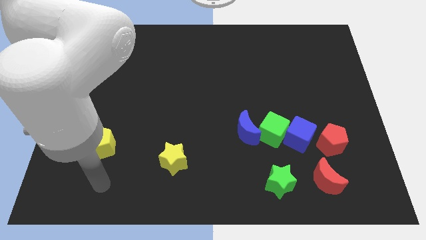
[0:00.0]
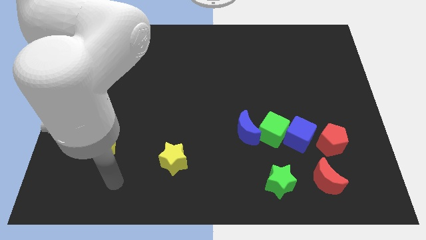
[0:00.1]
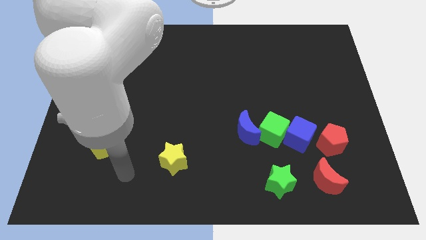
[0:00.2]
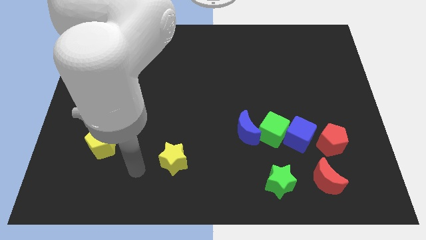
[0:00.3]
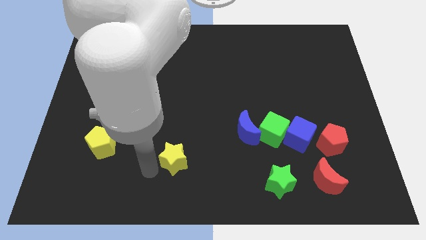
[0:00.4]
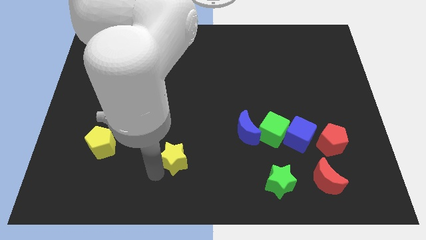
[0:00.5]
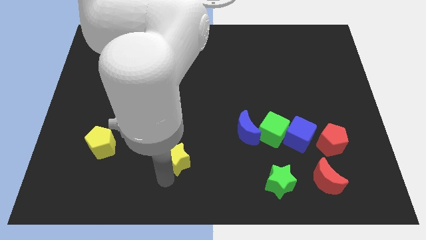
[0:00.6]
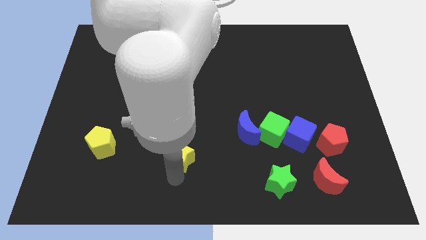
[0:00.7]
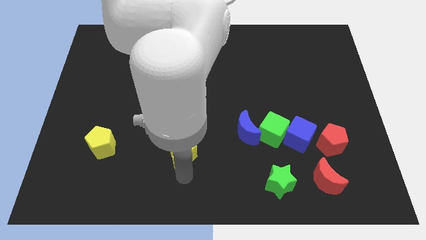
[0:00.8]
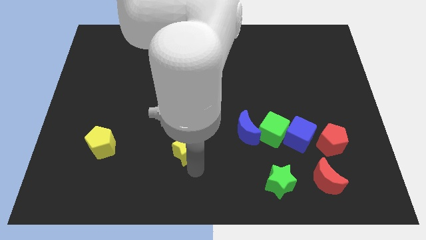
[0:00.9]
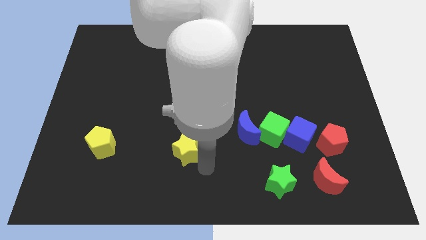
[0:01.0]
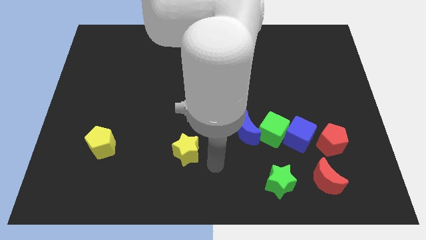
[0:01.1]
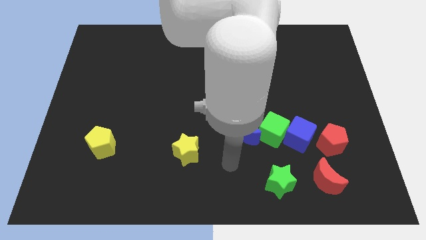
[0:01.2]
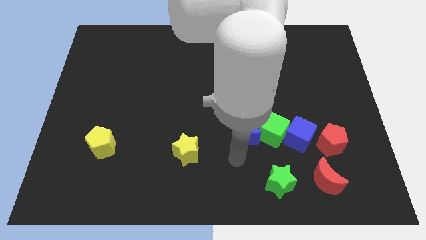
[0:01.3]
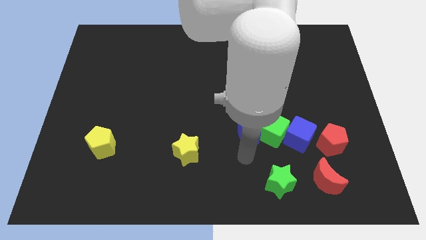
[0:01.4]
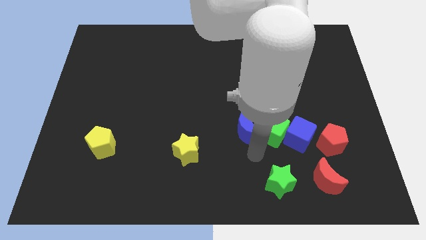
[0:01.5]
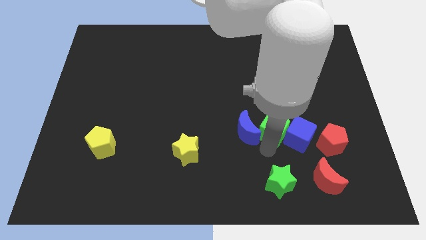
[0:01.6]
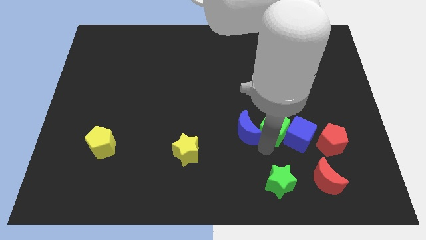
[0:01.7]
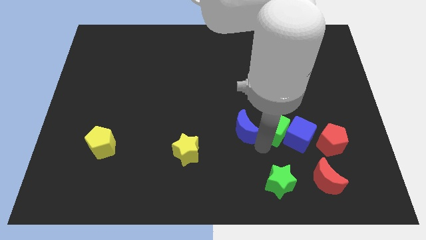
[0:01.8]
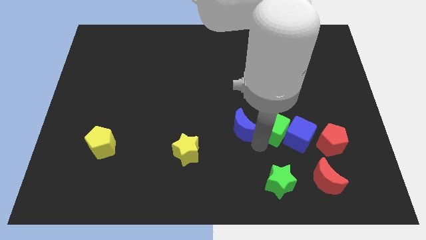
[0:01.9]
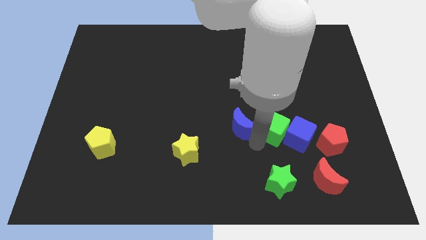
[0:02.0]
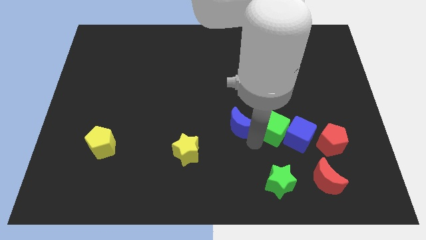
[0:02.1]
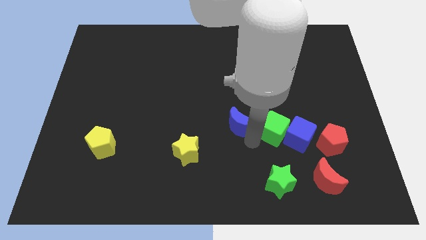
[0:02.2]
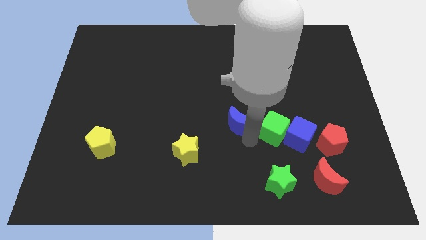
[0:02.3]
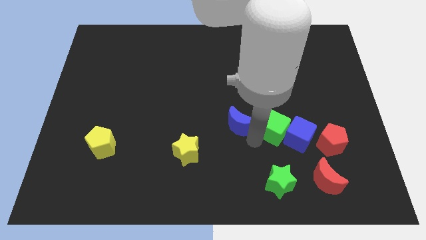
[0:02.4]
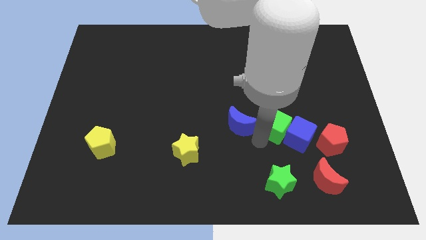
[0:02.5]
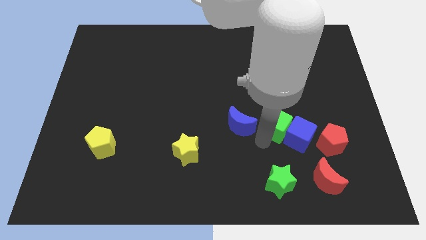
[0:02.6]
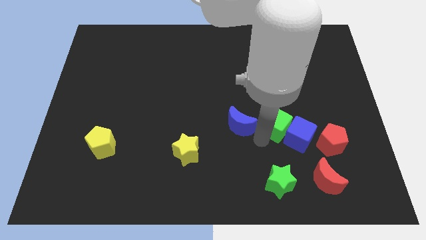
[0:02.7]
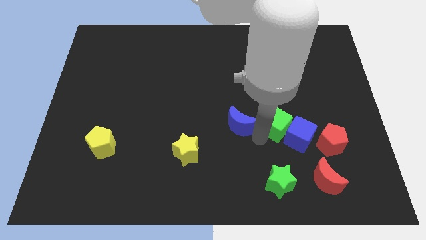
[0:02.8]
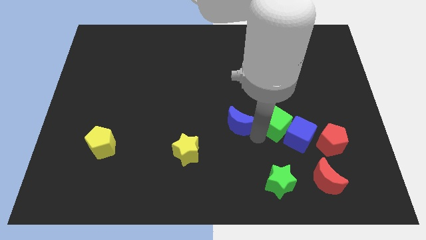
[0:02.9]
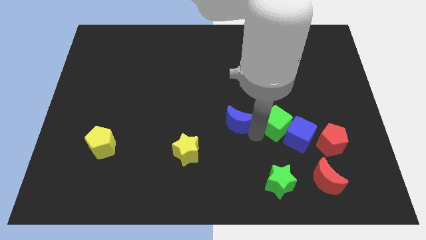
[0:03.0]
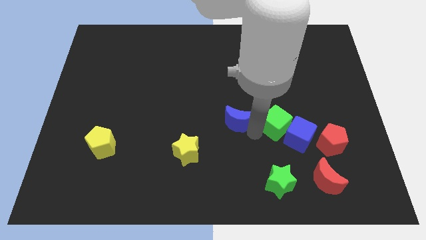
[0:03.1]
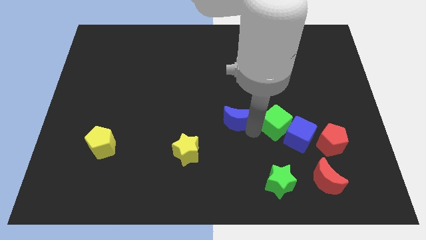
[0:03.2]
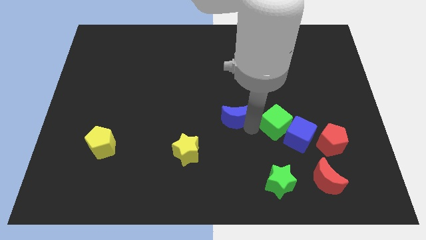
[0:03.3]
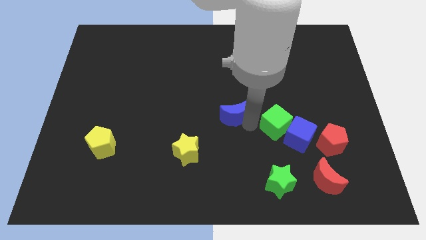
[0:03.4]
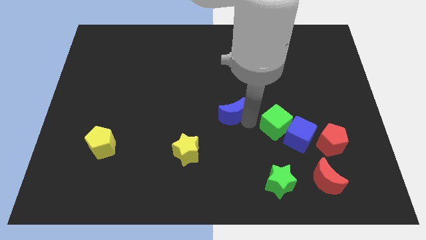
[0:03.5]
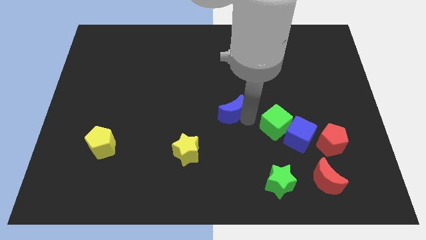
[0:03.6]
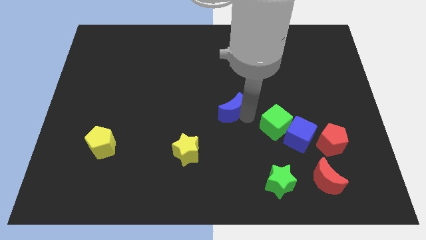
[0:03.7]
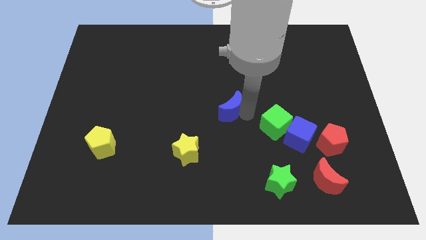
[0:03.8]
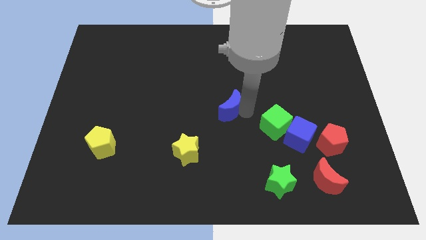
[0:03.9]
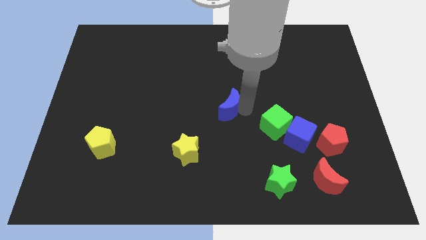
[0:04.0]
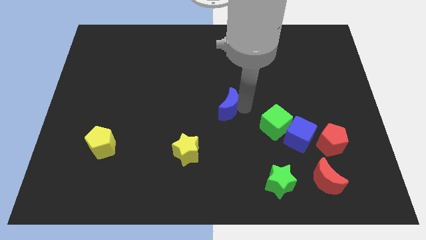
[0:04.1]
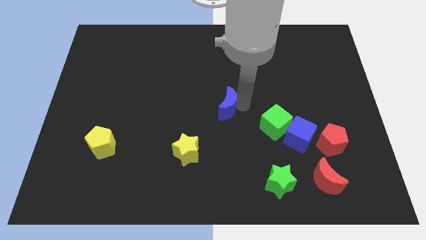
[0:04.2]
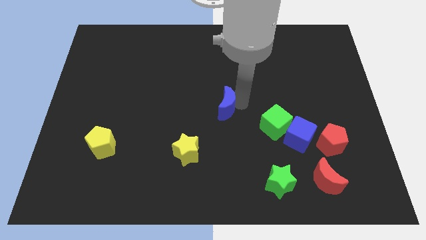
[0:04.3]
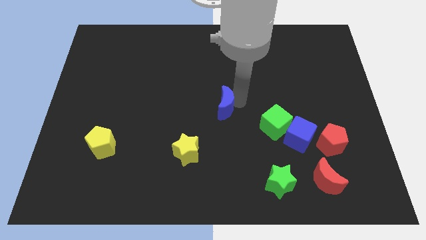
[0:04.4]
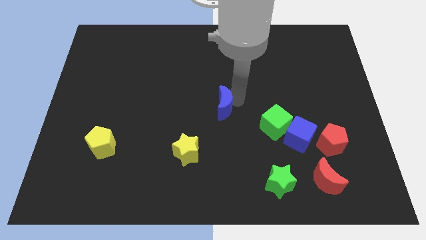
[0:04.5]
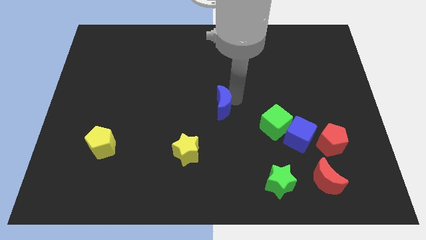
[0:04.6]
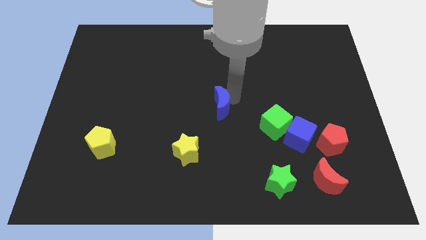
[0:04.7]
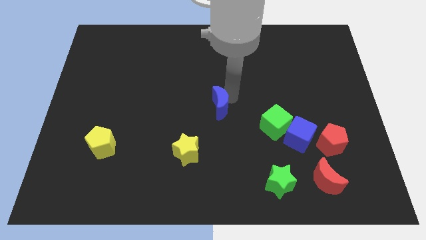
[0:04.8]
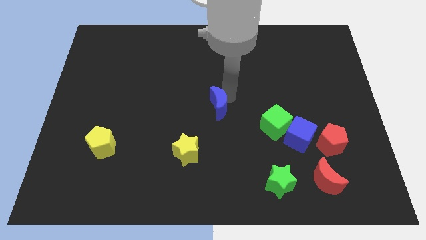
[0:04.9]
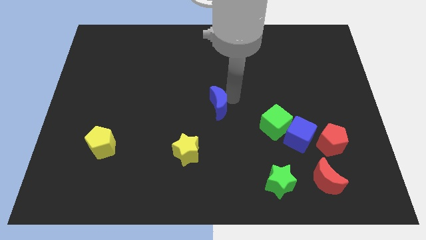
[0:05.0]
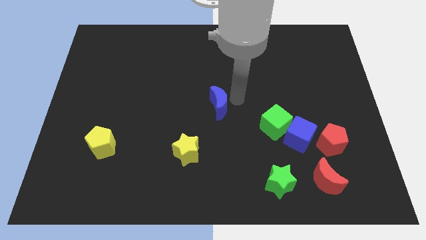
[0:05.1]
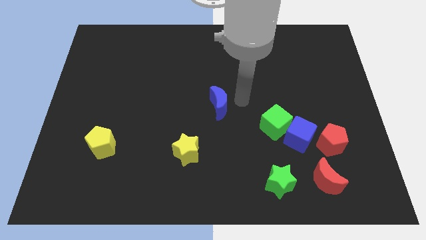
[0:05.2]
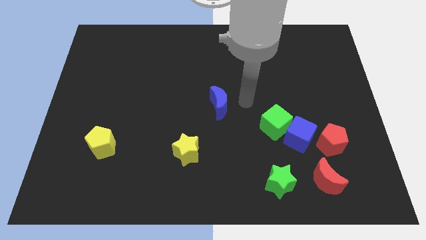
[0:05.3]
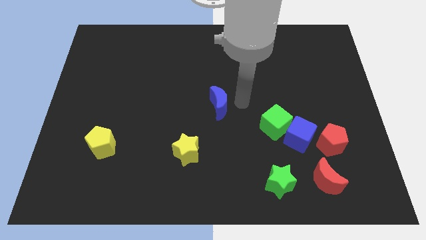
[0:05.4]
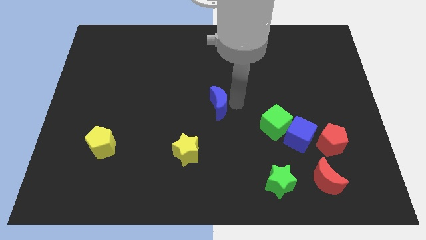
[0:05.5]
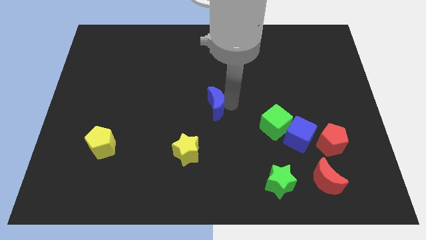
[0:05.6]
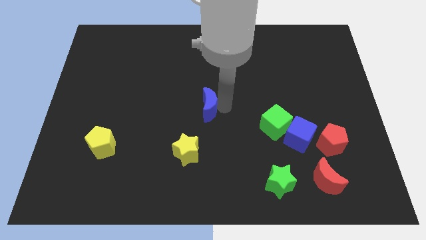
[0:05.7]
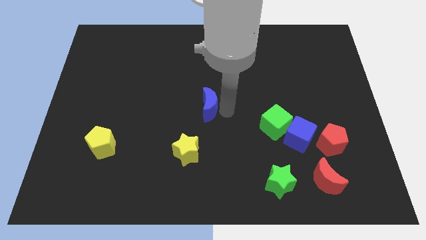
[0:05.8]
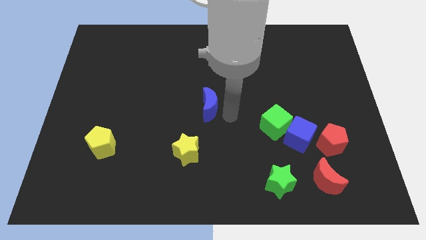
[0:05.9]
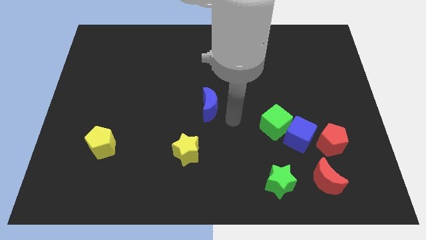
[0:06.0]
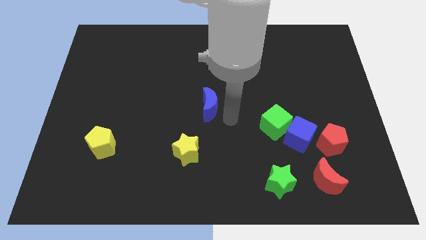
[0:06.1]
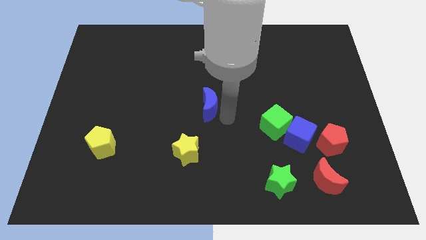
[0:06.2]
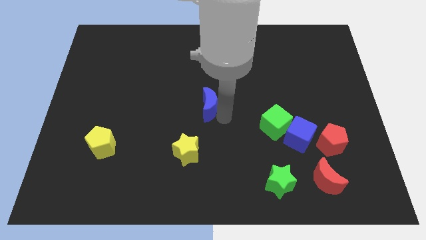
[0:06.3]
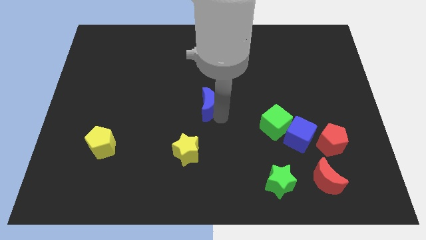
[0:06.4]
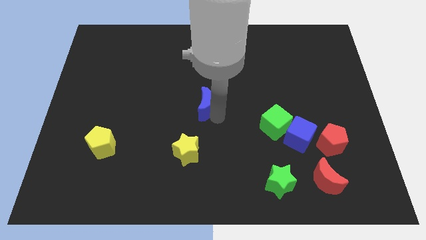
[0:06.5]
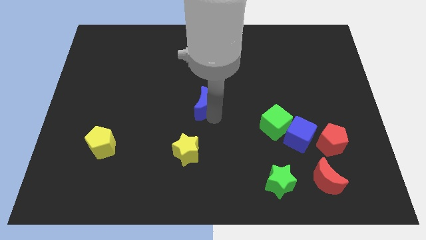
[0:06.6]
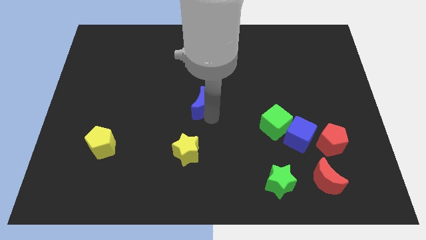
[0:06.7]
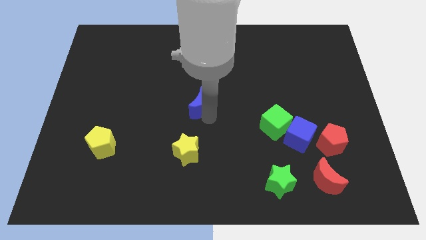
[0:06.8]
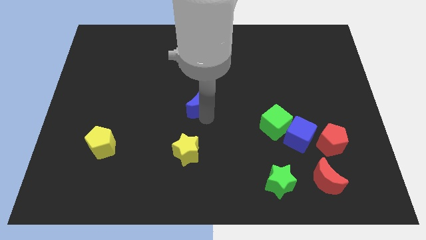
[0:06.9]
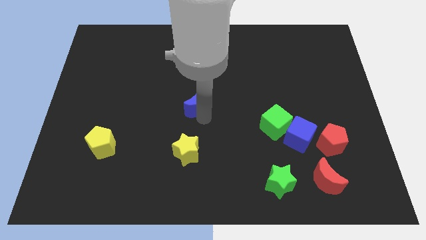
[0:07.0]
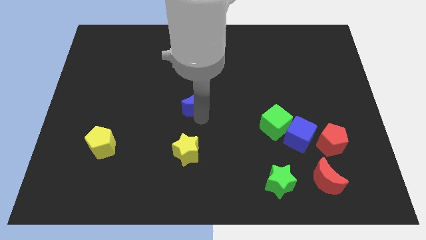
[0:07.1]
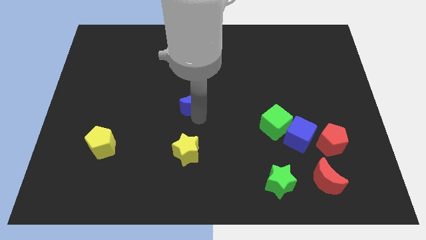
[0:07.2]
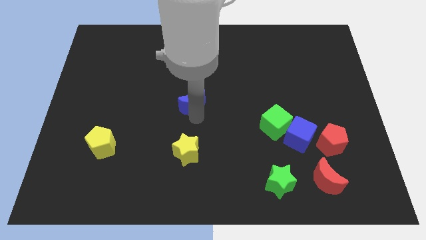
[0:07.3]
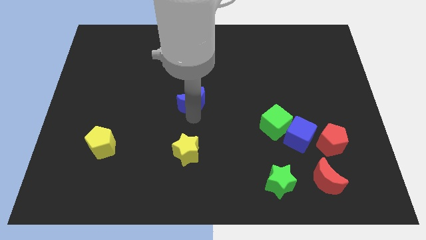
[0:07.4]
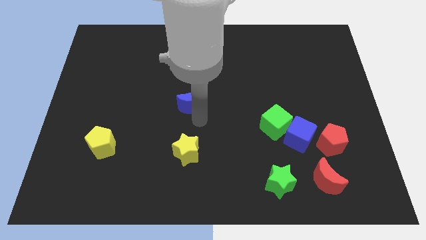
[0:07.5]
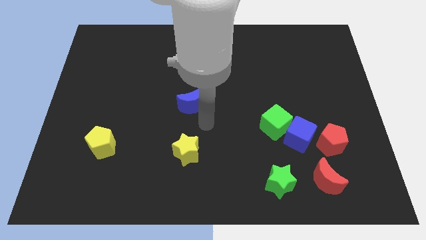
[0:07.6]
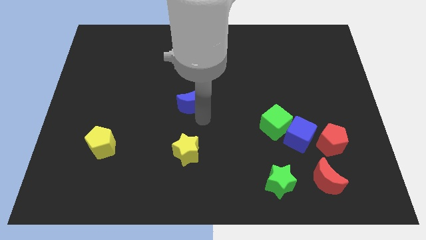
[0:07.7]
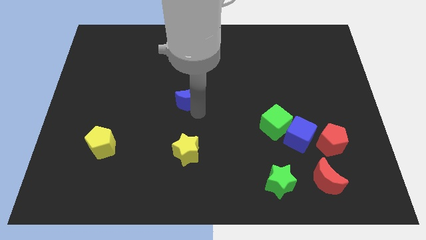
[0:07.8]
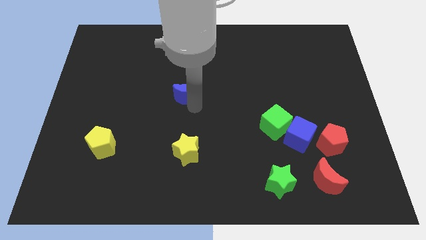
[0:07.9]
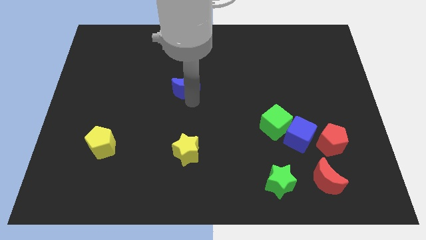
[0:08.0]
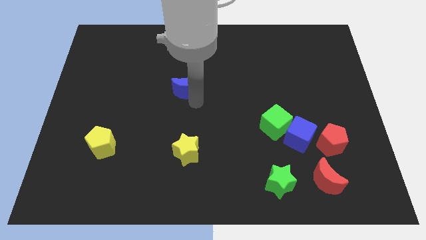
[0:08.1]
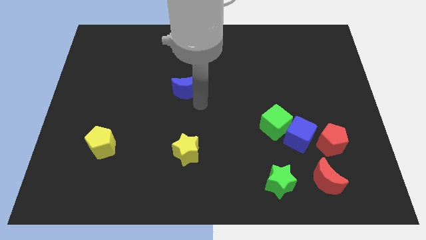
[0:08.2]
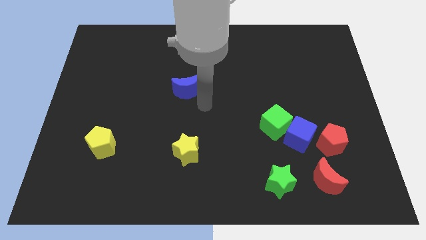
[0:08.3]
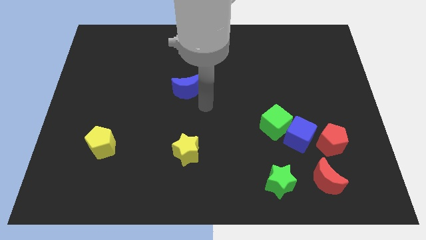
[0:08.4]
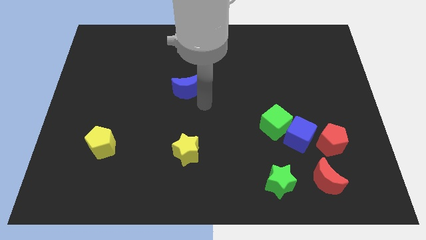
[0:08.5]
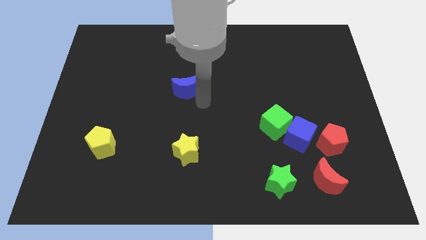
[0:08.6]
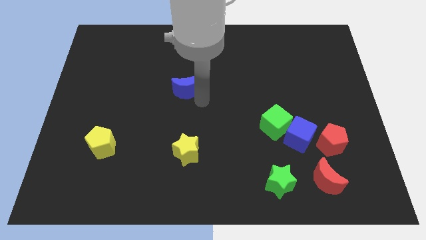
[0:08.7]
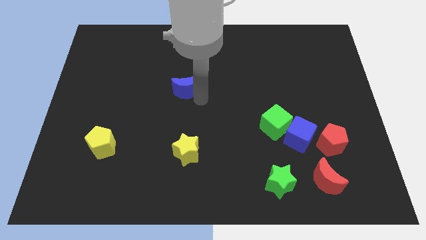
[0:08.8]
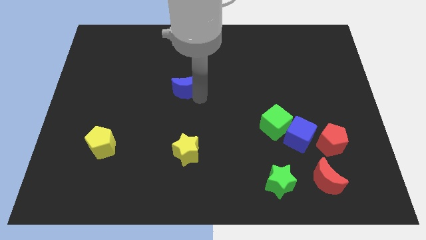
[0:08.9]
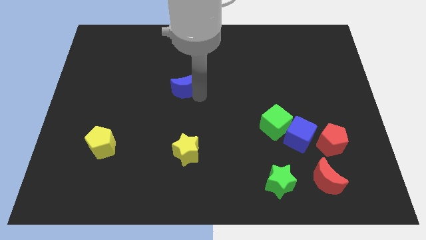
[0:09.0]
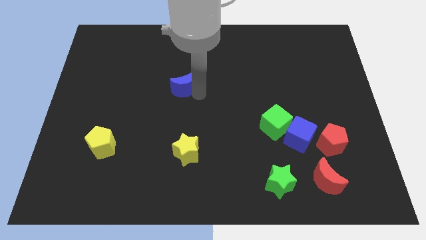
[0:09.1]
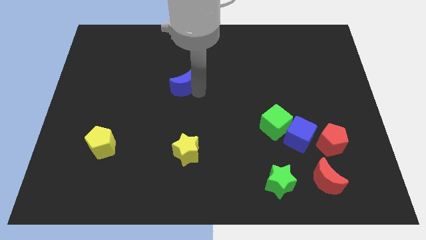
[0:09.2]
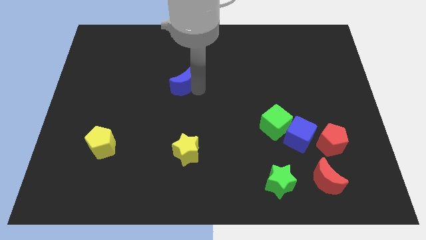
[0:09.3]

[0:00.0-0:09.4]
slide the blue moon upwards and then to the left
